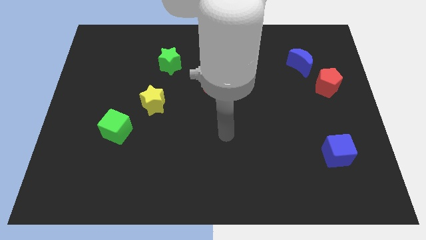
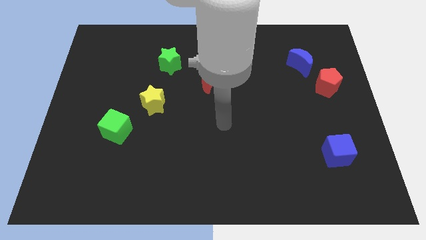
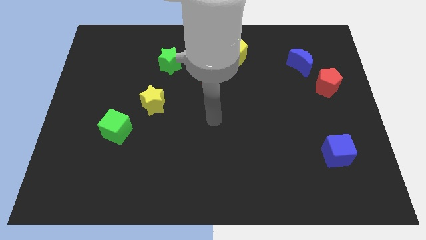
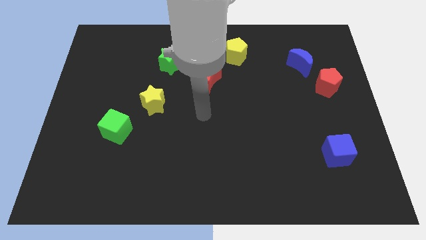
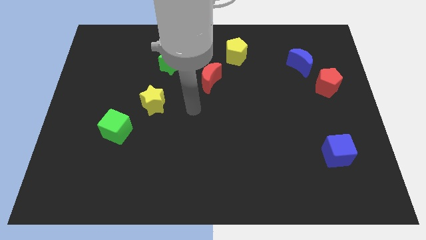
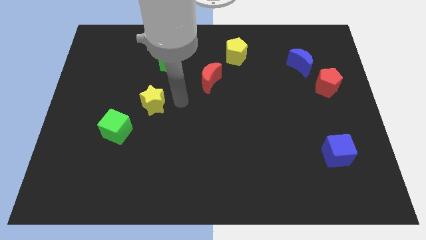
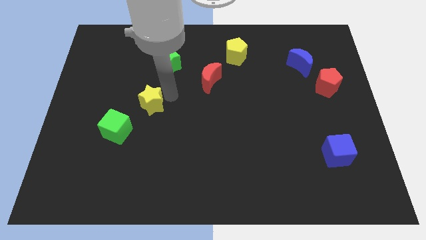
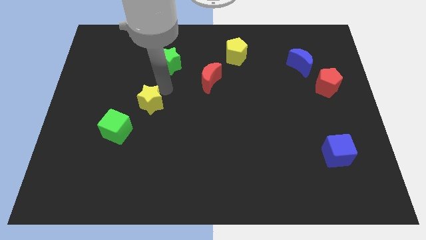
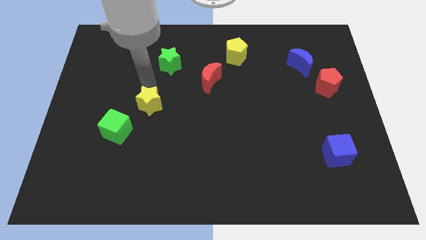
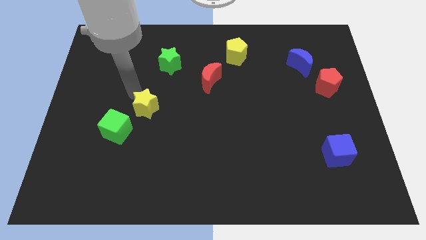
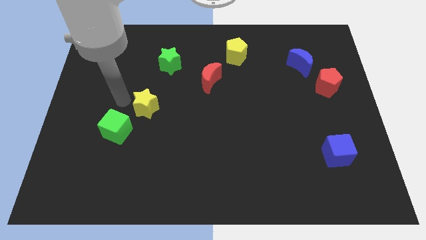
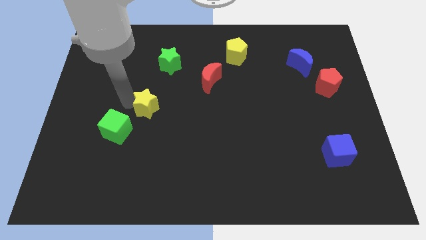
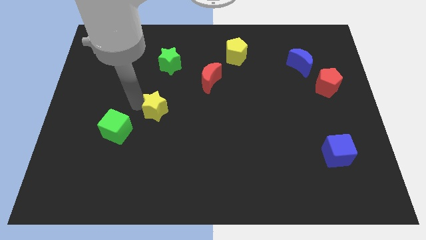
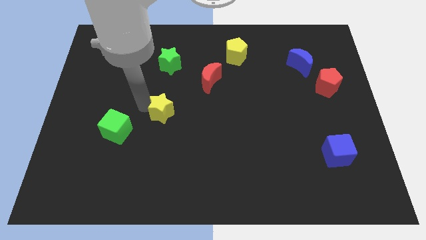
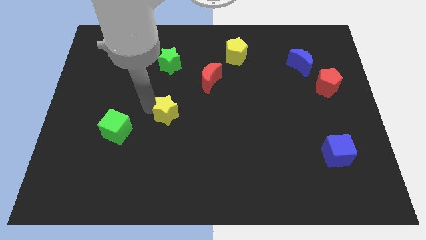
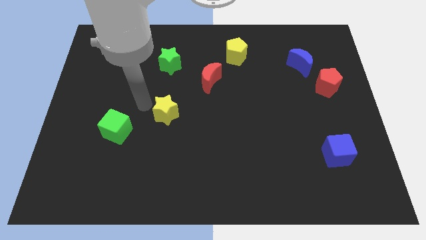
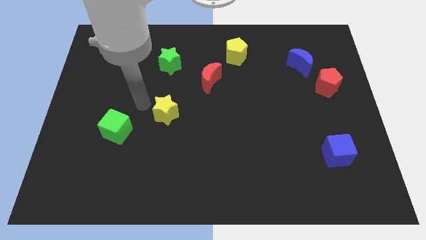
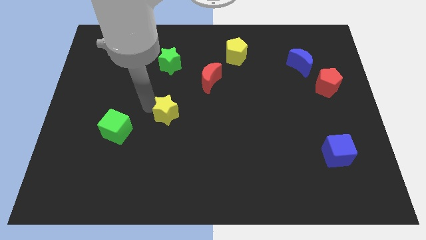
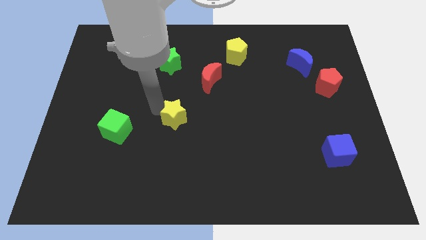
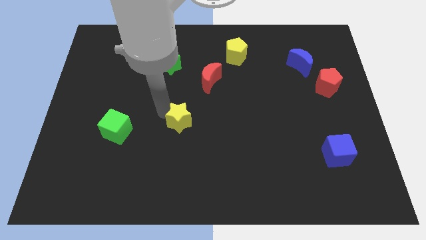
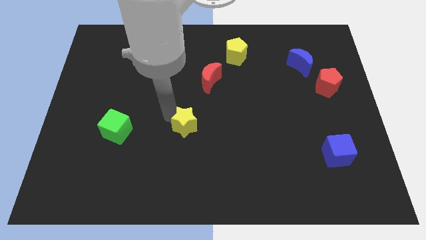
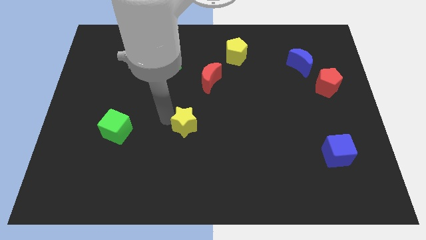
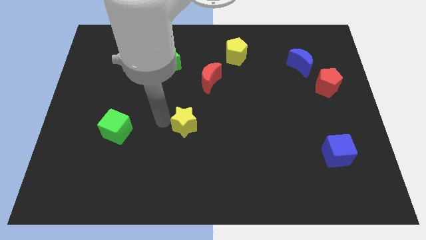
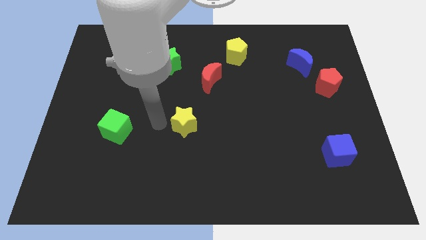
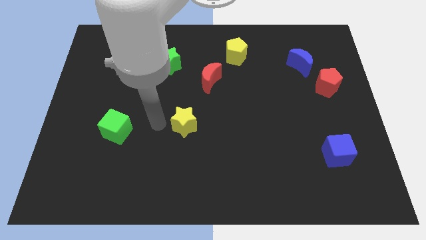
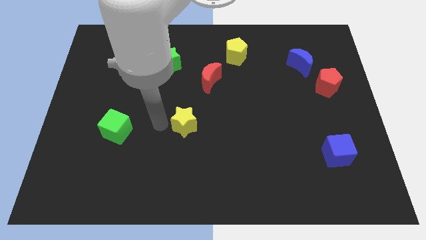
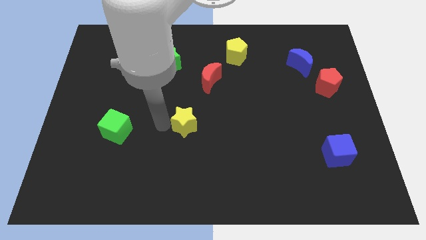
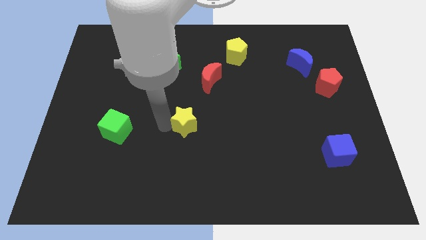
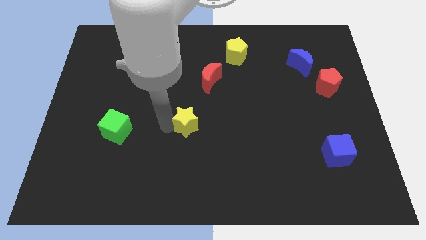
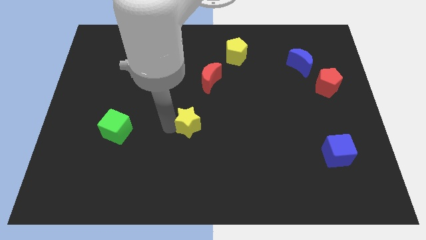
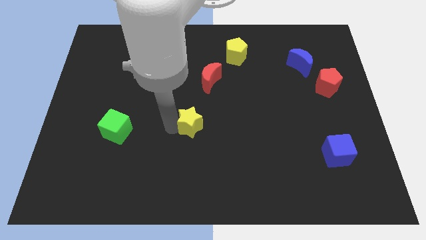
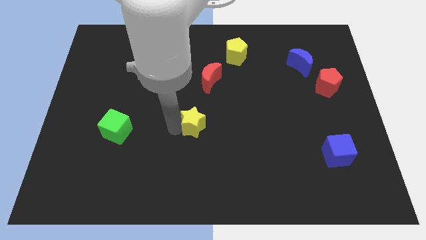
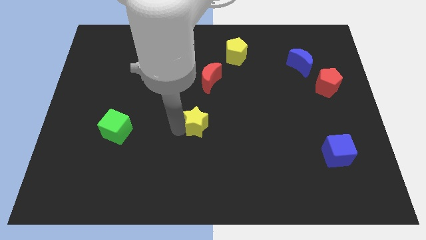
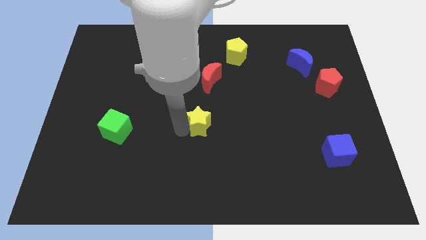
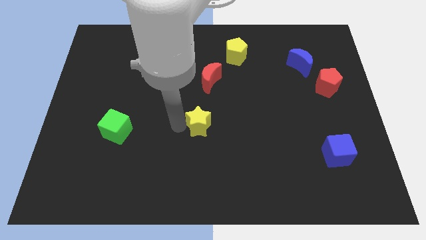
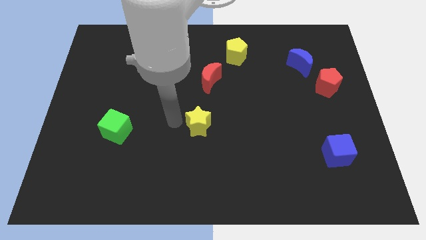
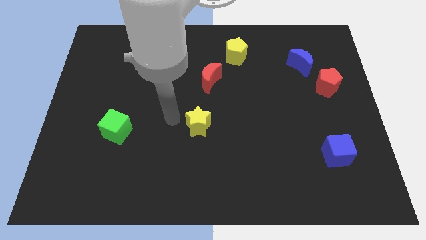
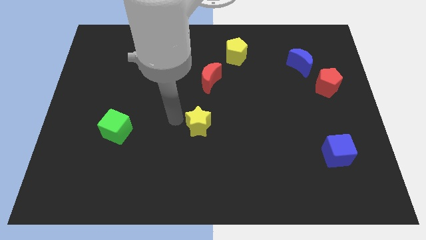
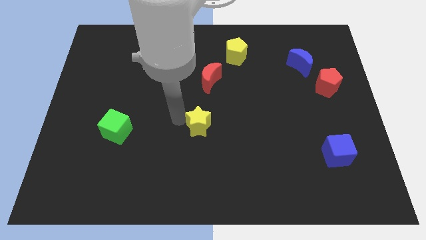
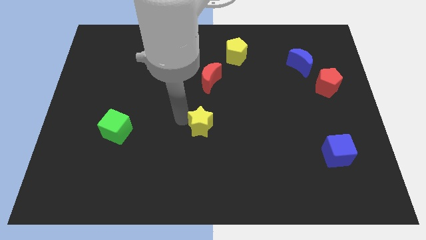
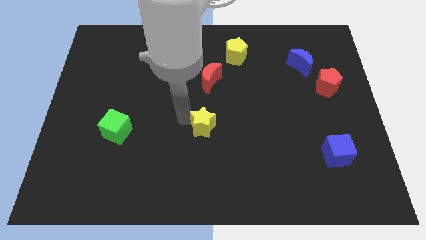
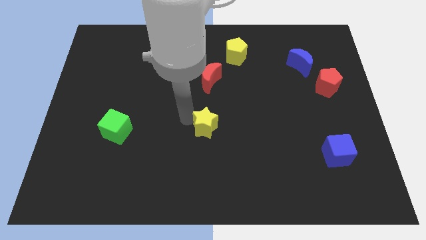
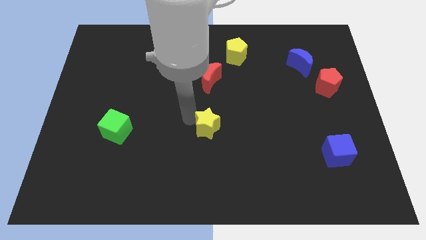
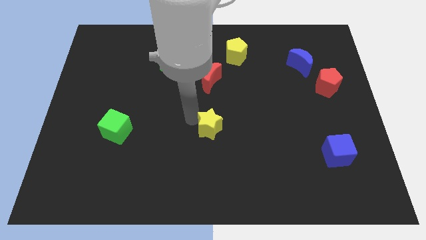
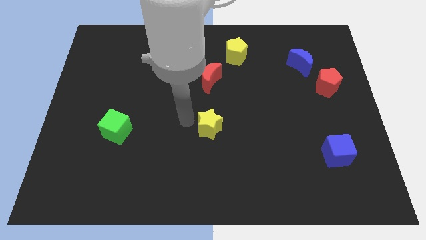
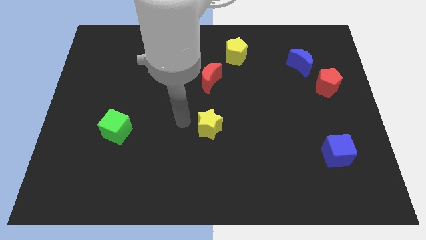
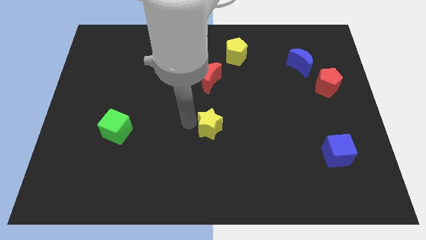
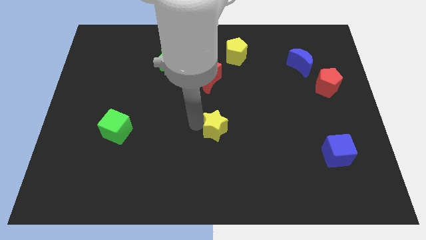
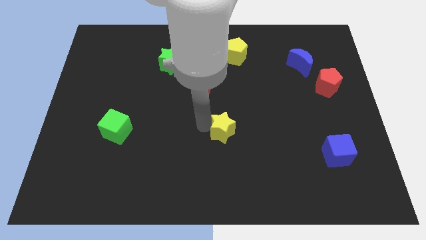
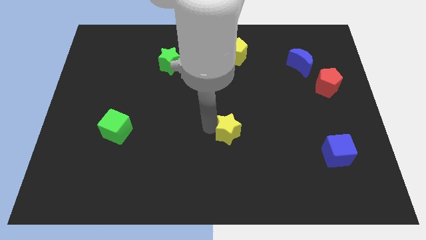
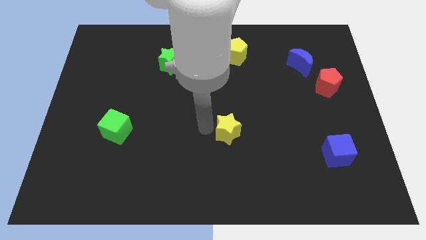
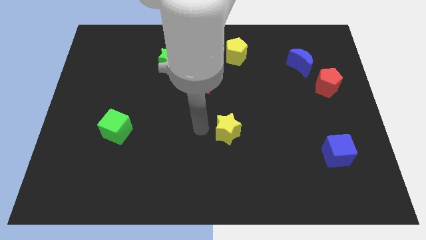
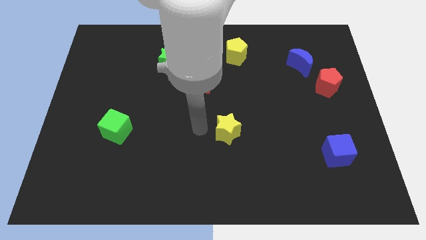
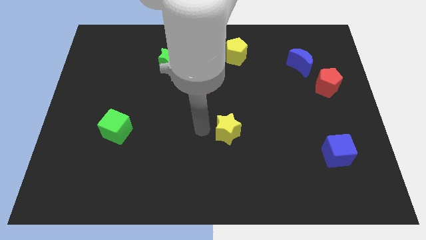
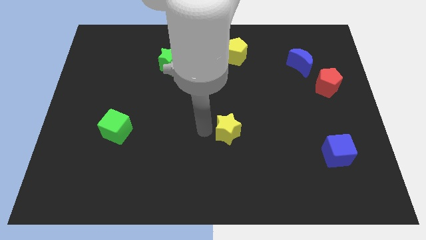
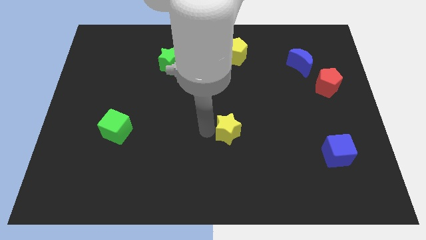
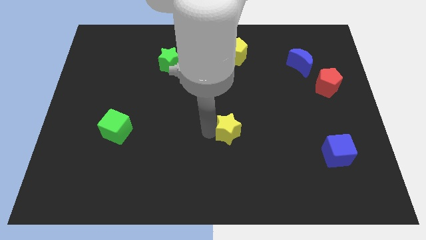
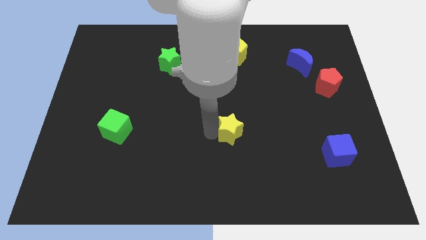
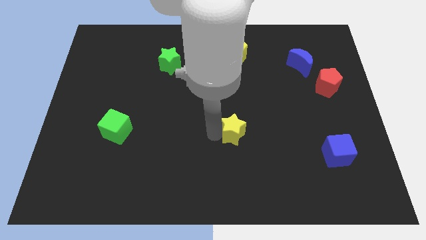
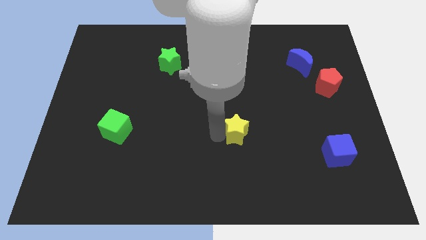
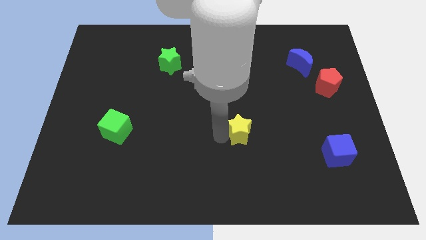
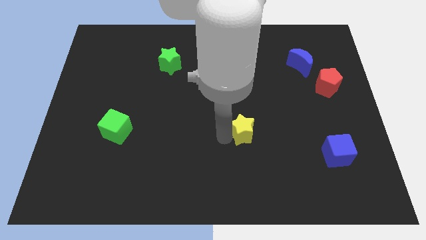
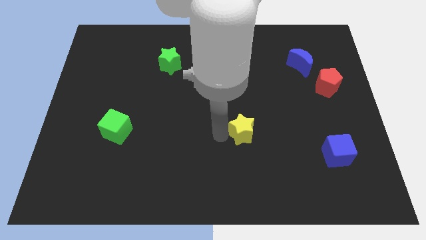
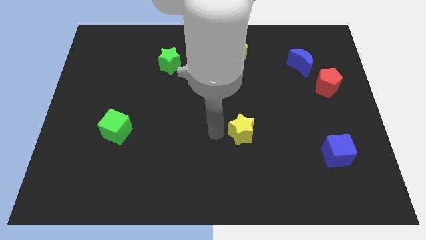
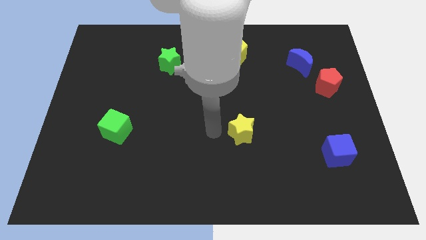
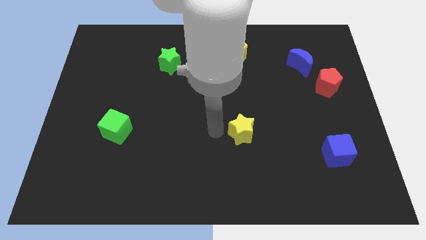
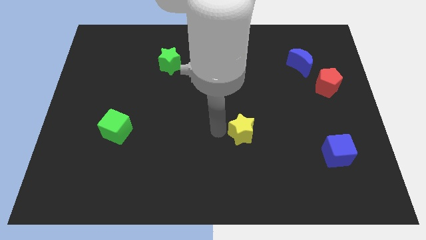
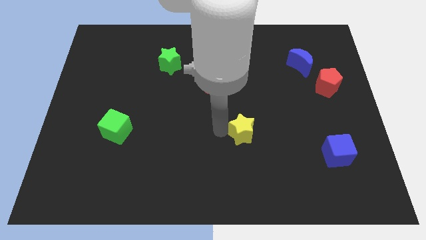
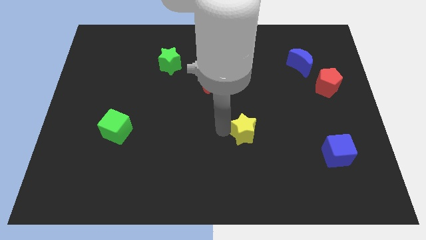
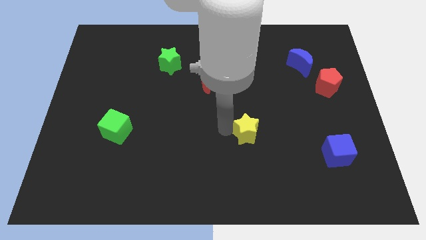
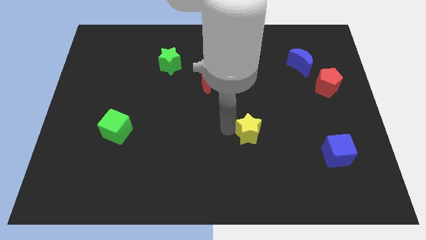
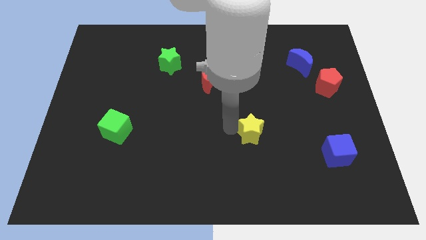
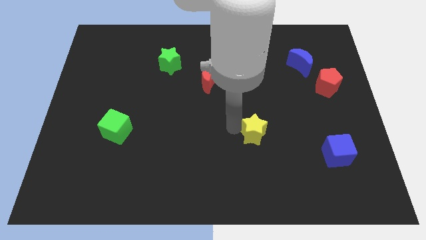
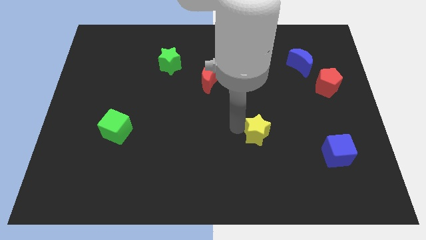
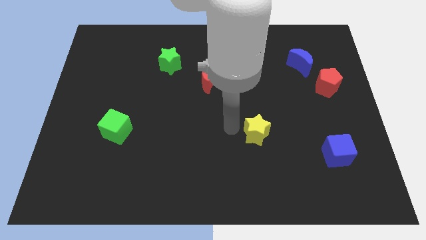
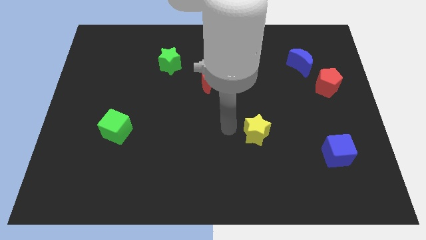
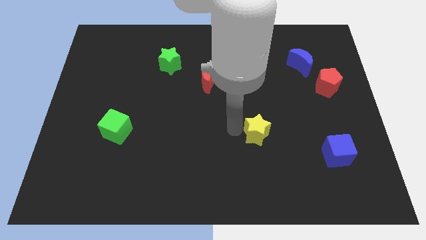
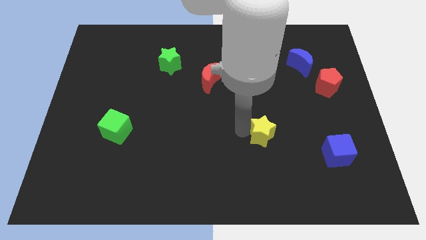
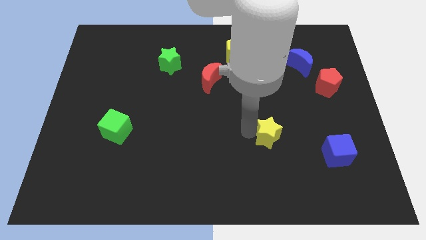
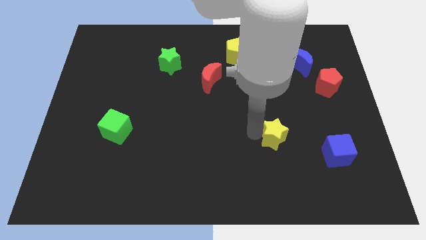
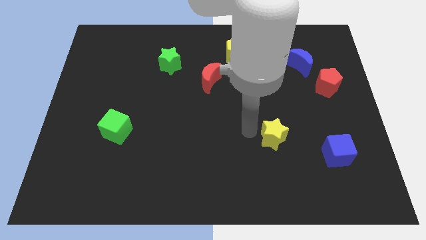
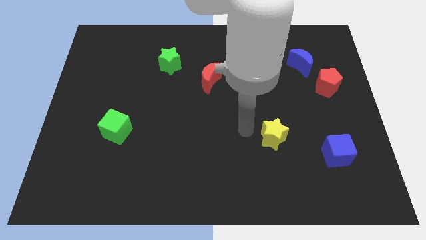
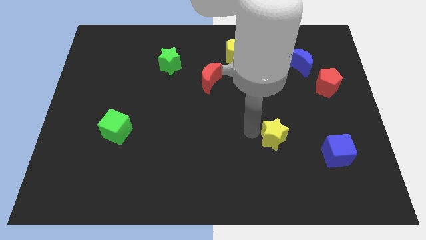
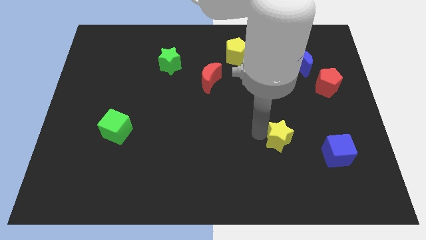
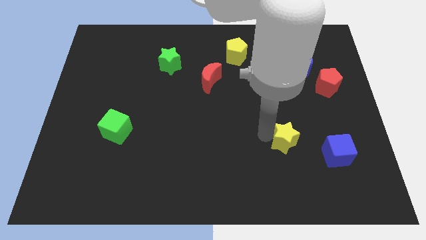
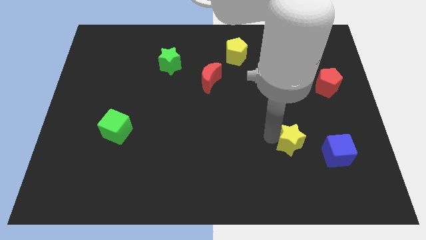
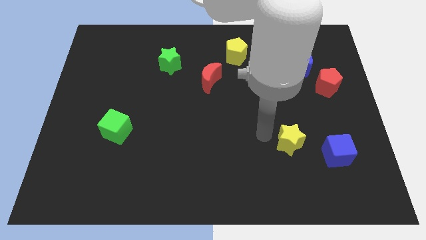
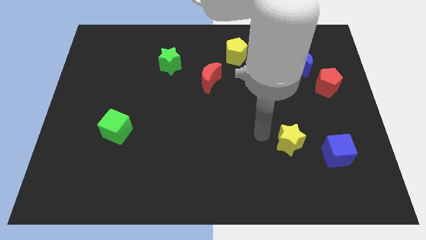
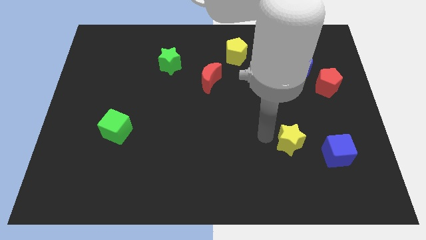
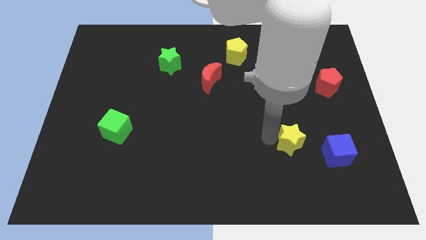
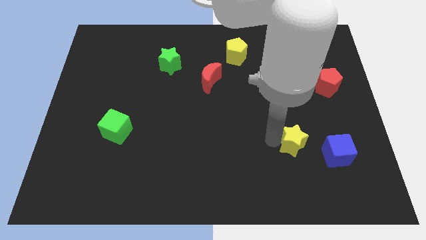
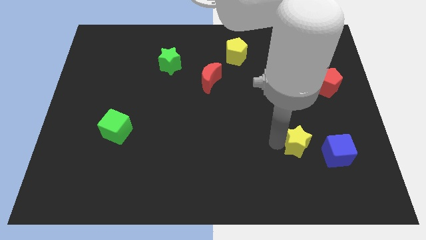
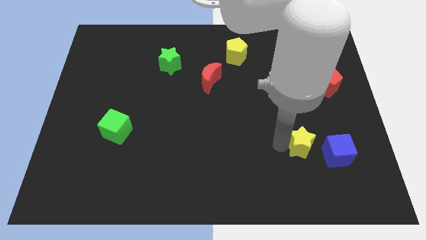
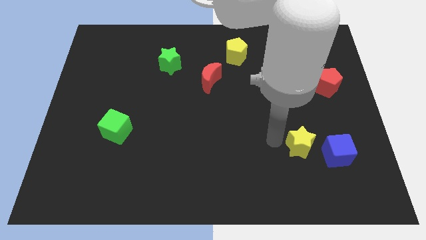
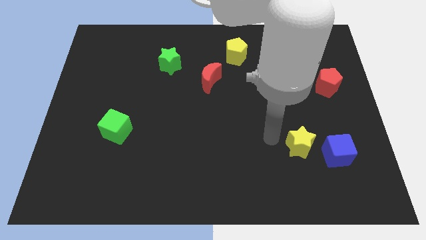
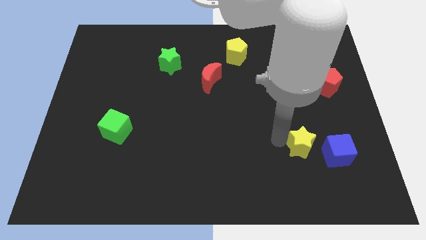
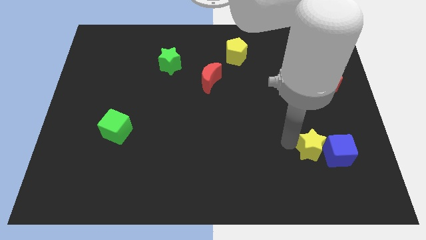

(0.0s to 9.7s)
put the yellow star towards the blue cube
